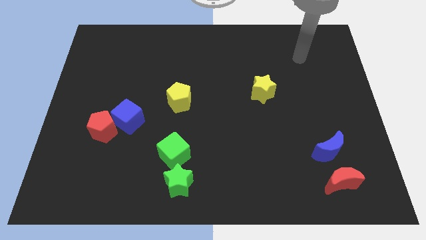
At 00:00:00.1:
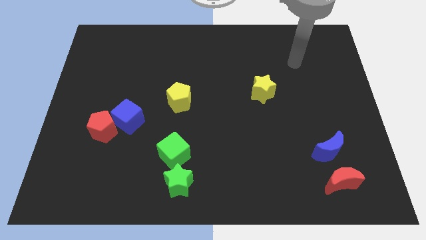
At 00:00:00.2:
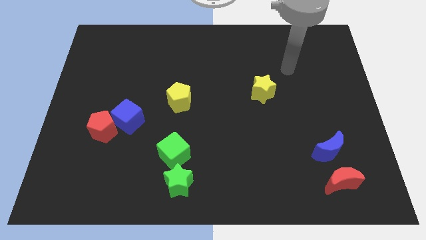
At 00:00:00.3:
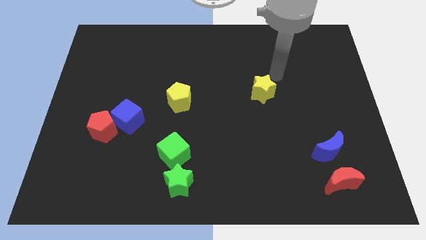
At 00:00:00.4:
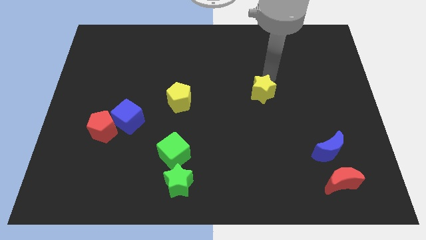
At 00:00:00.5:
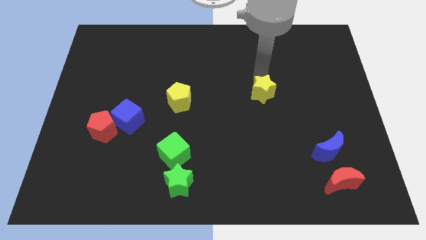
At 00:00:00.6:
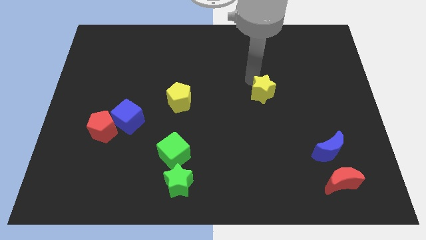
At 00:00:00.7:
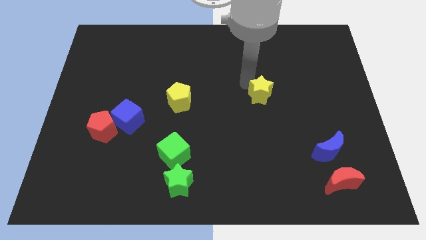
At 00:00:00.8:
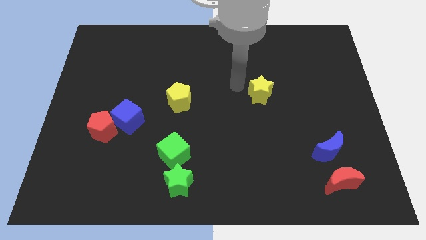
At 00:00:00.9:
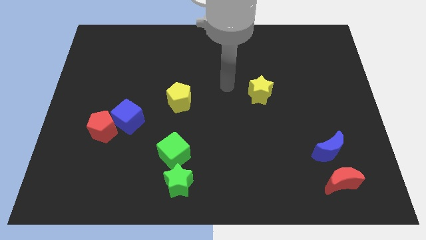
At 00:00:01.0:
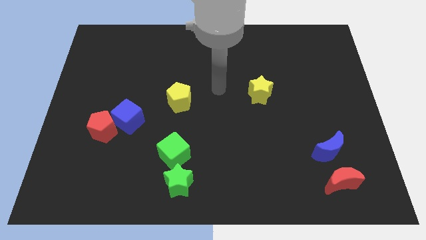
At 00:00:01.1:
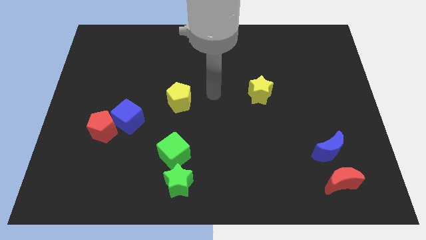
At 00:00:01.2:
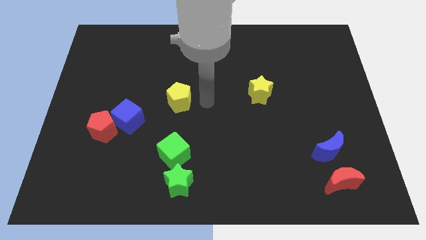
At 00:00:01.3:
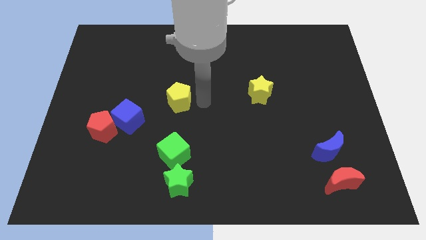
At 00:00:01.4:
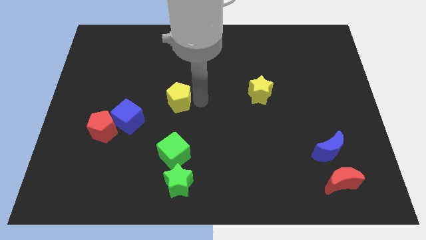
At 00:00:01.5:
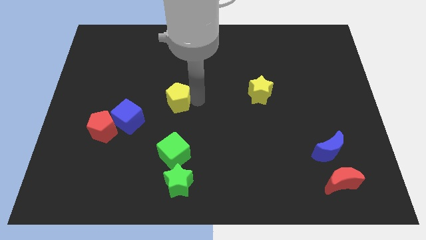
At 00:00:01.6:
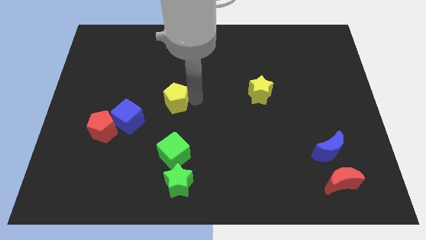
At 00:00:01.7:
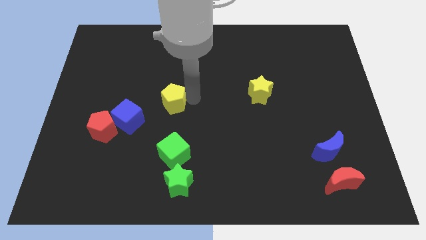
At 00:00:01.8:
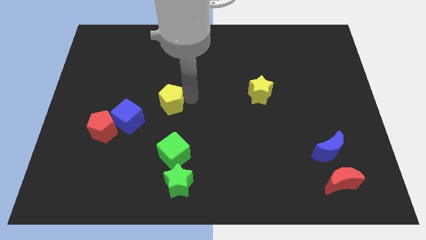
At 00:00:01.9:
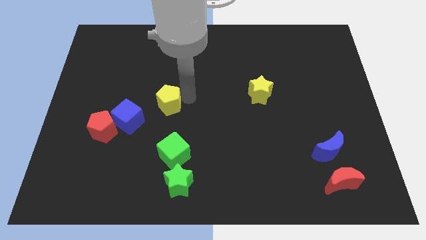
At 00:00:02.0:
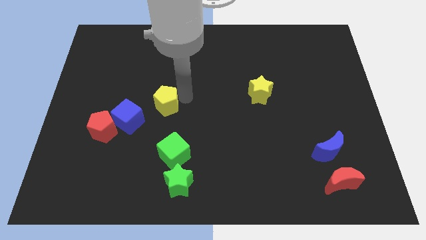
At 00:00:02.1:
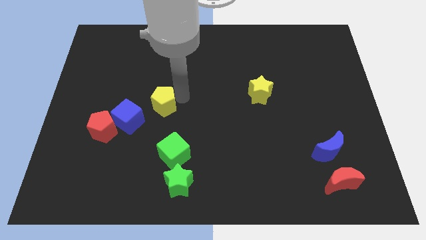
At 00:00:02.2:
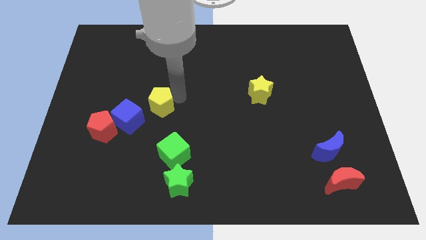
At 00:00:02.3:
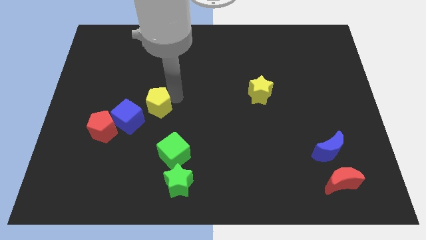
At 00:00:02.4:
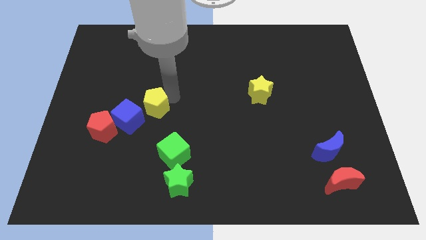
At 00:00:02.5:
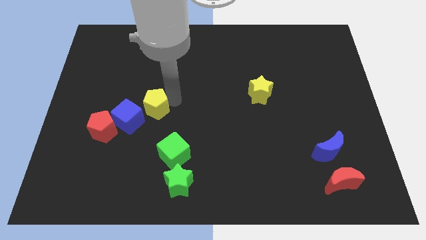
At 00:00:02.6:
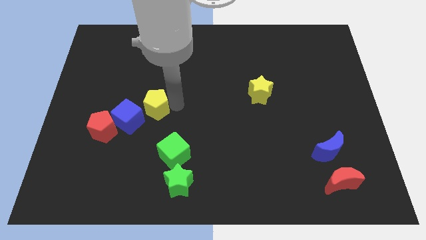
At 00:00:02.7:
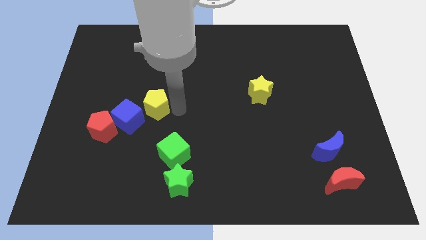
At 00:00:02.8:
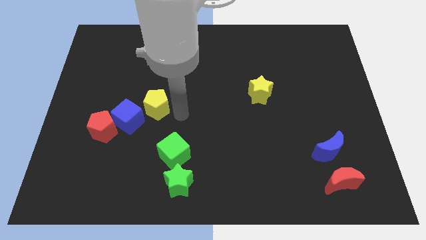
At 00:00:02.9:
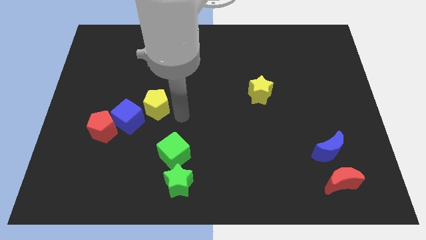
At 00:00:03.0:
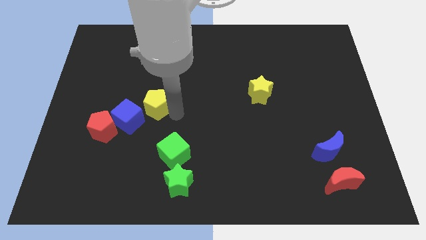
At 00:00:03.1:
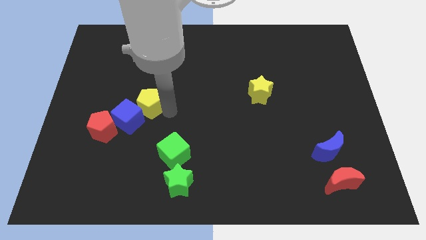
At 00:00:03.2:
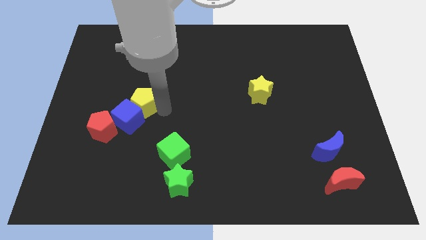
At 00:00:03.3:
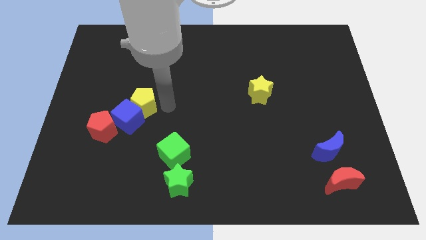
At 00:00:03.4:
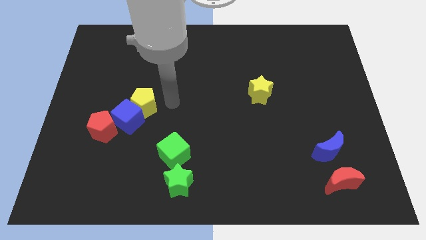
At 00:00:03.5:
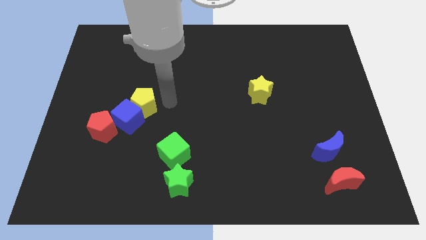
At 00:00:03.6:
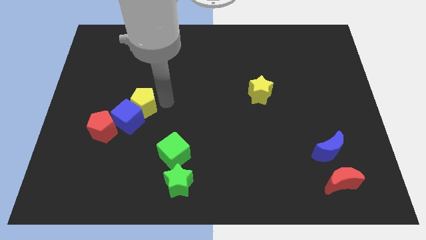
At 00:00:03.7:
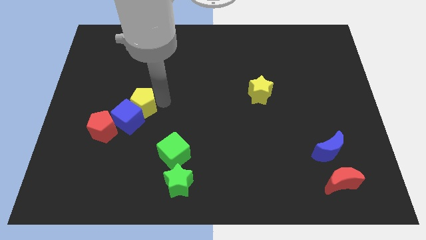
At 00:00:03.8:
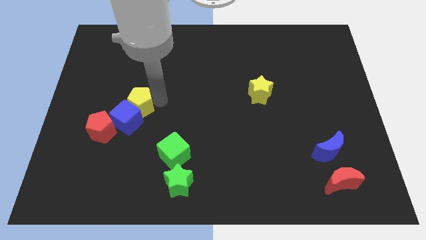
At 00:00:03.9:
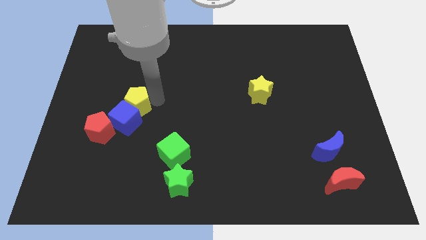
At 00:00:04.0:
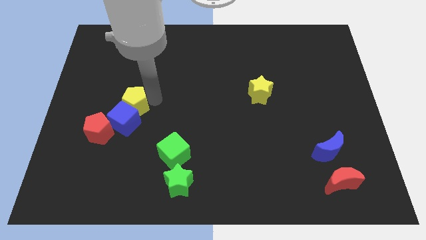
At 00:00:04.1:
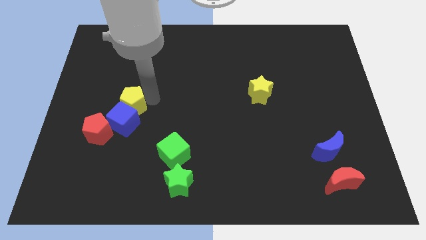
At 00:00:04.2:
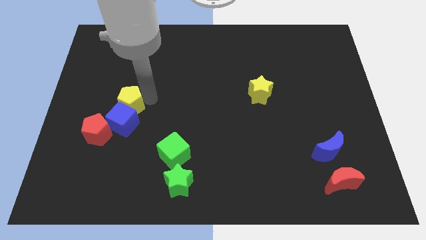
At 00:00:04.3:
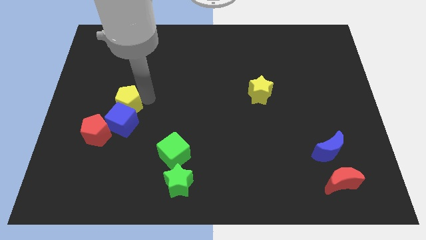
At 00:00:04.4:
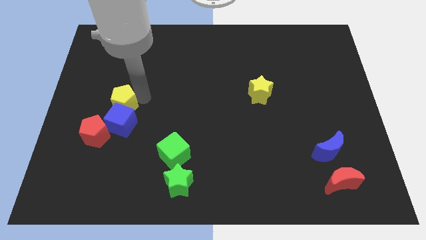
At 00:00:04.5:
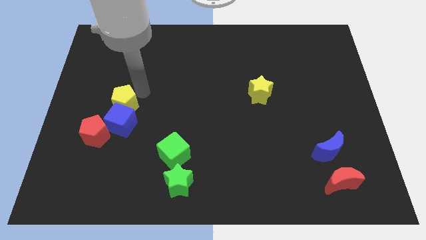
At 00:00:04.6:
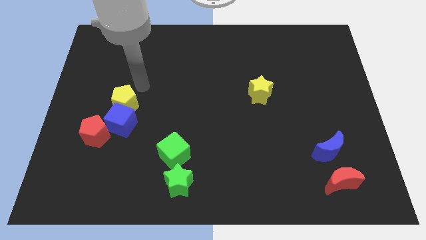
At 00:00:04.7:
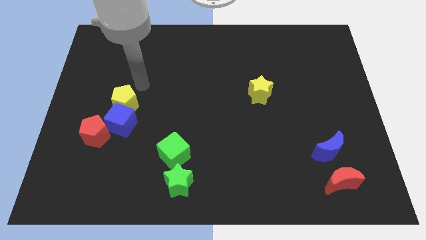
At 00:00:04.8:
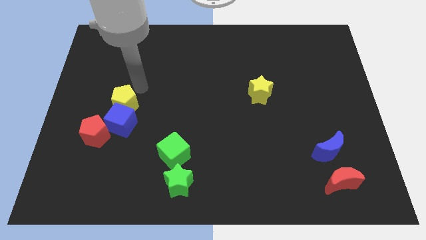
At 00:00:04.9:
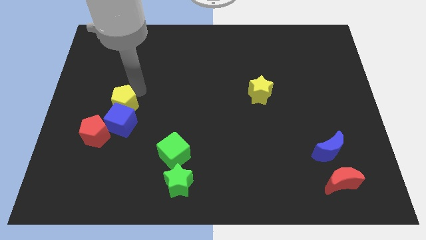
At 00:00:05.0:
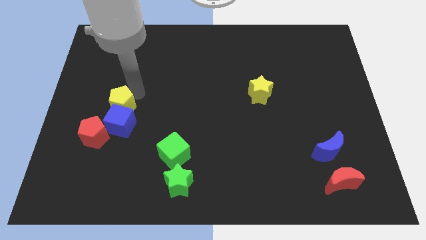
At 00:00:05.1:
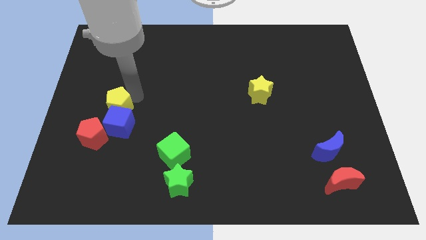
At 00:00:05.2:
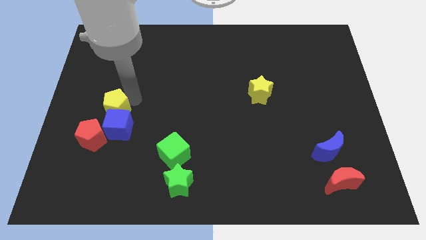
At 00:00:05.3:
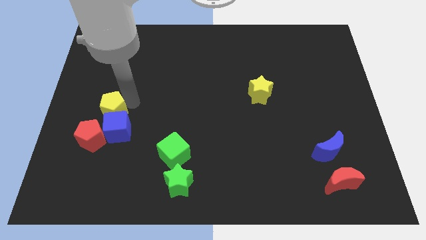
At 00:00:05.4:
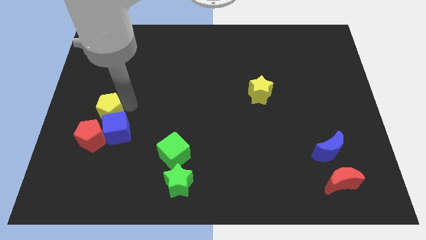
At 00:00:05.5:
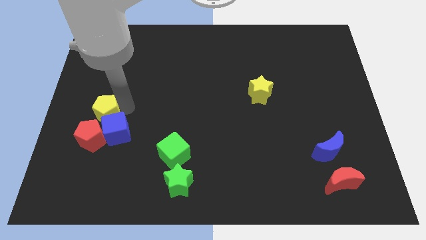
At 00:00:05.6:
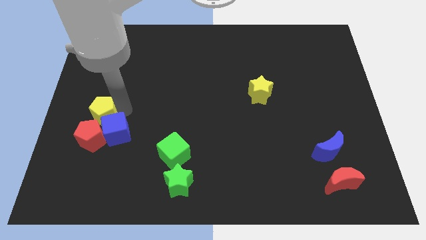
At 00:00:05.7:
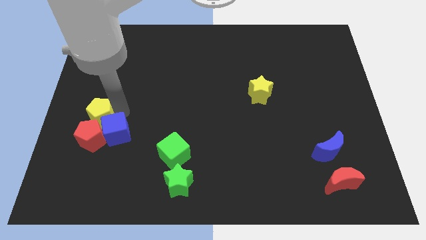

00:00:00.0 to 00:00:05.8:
put the yellow pentagon close to the red pentagon

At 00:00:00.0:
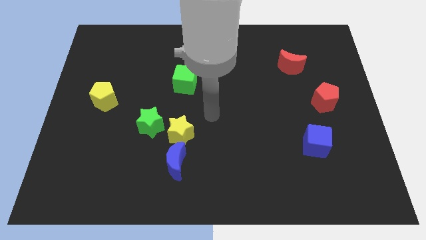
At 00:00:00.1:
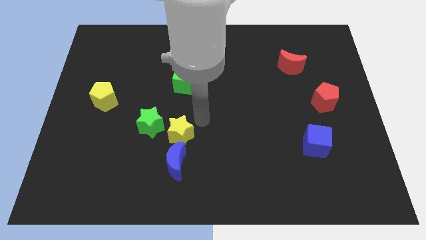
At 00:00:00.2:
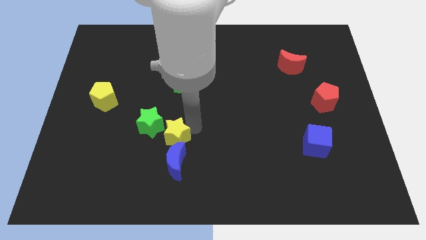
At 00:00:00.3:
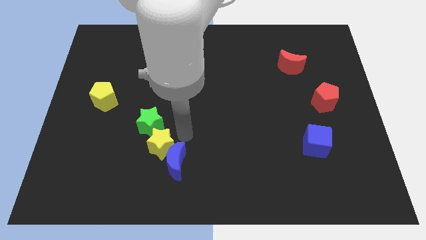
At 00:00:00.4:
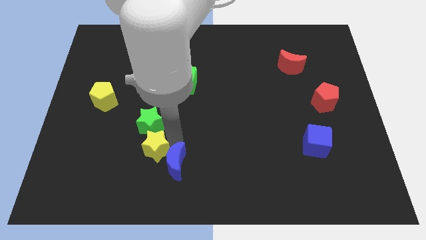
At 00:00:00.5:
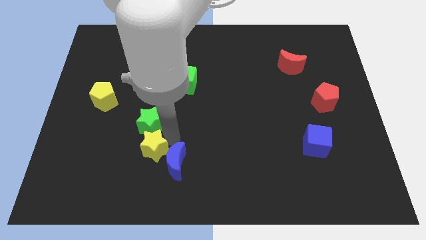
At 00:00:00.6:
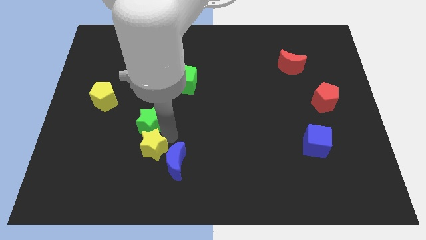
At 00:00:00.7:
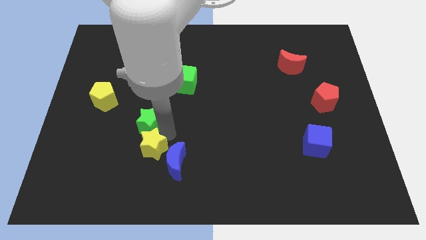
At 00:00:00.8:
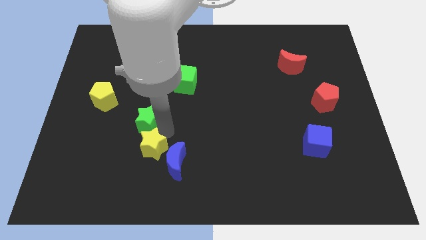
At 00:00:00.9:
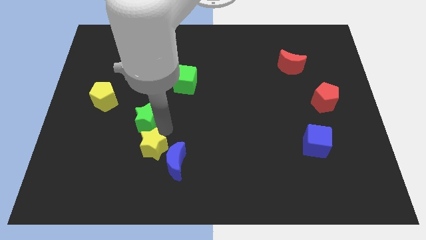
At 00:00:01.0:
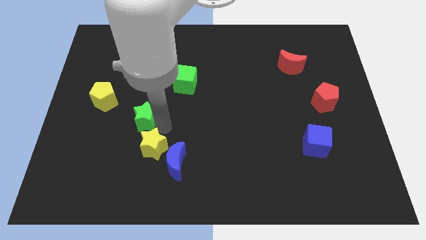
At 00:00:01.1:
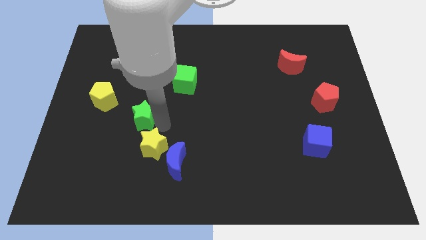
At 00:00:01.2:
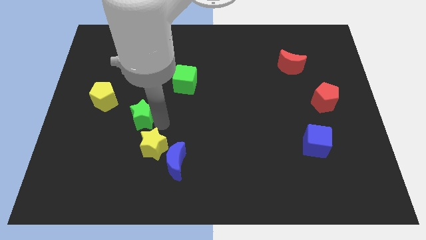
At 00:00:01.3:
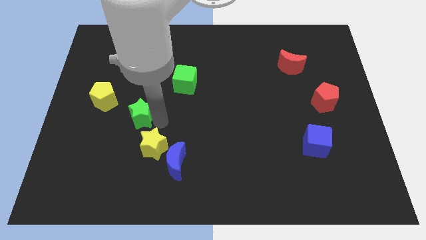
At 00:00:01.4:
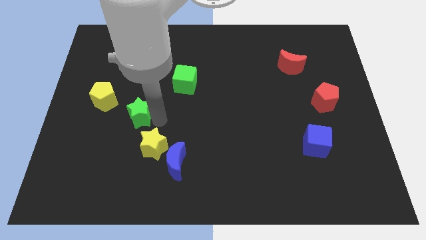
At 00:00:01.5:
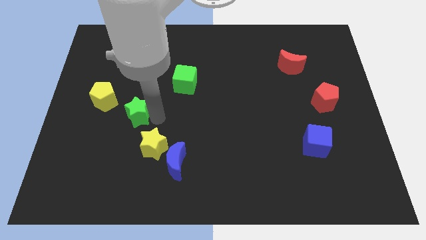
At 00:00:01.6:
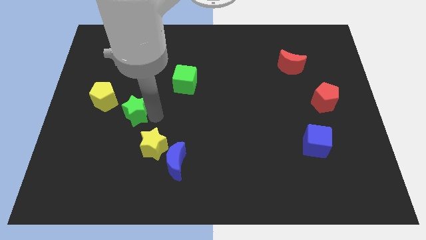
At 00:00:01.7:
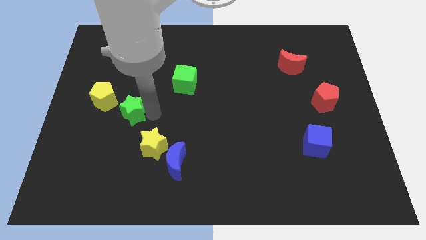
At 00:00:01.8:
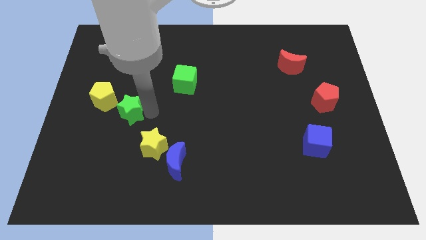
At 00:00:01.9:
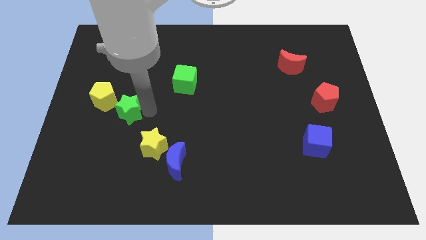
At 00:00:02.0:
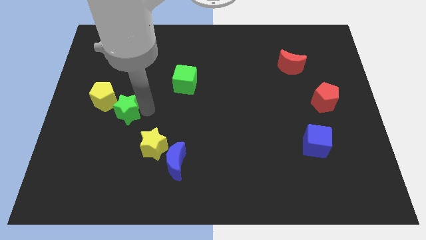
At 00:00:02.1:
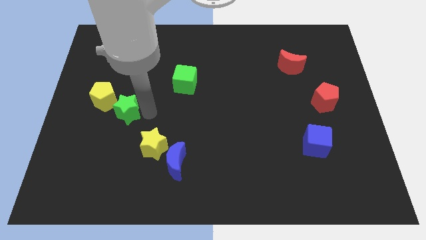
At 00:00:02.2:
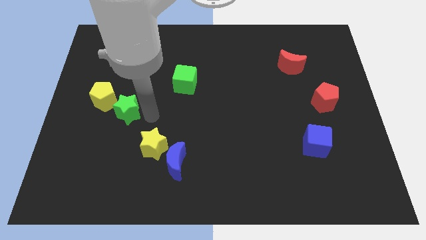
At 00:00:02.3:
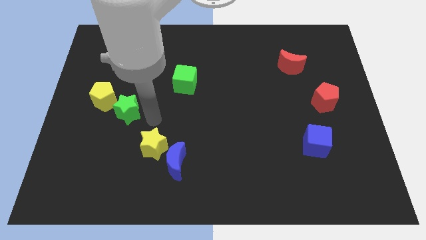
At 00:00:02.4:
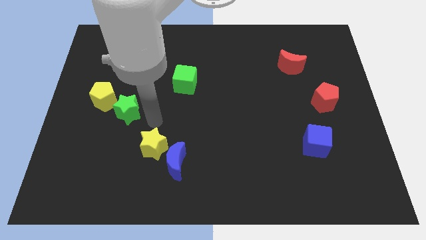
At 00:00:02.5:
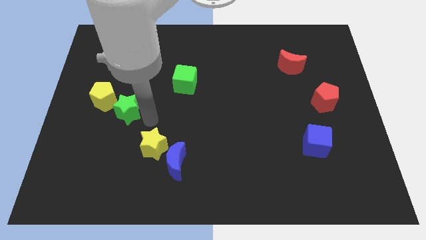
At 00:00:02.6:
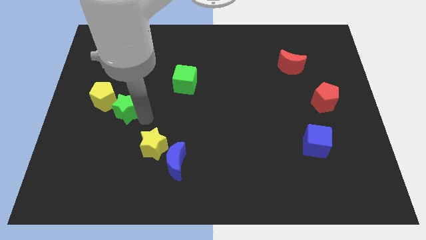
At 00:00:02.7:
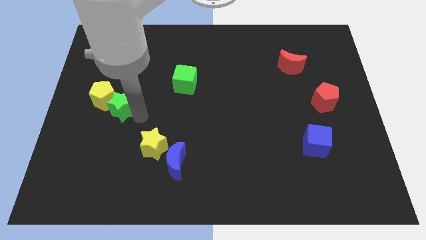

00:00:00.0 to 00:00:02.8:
move the green star towards the yellow pentagon
